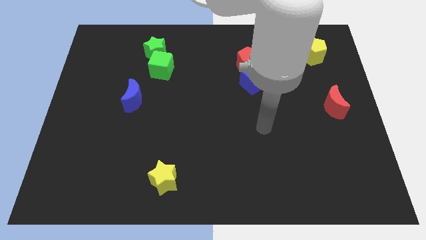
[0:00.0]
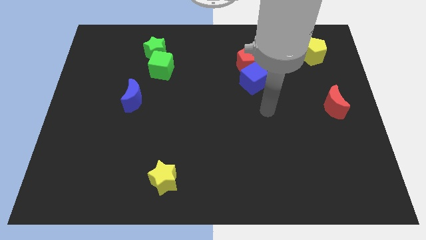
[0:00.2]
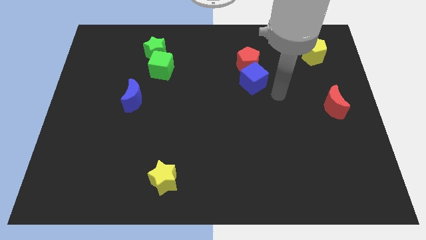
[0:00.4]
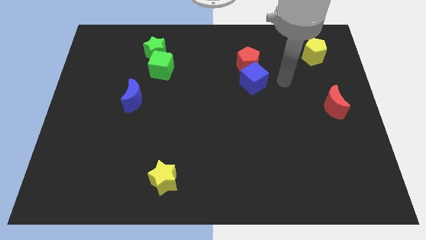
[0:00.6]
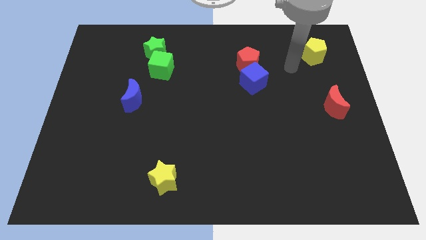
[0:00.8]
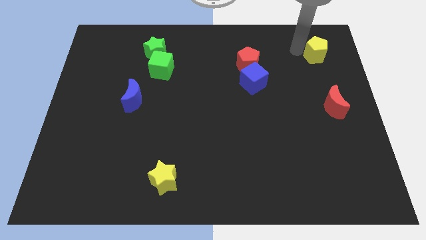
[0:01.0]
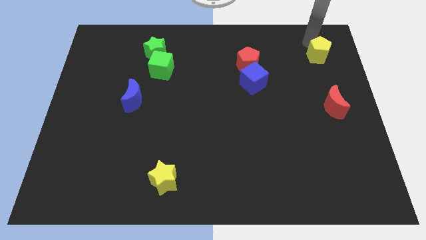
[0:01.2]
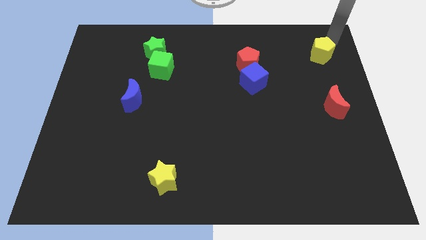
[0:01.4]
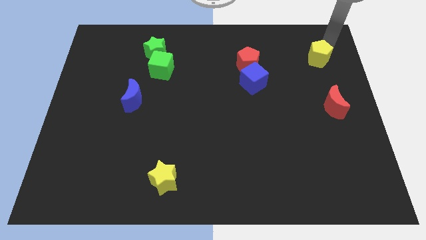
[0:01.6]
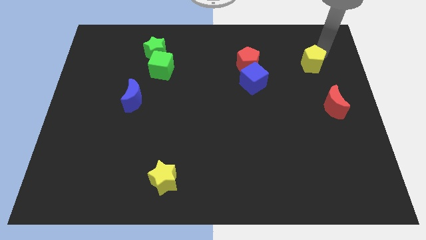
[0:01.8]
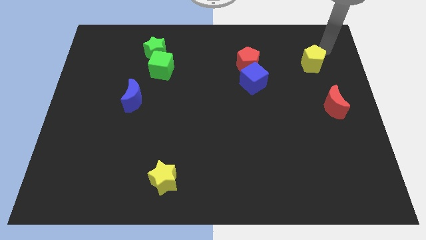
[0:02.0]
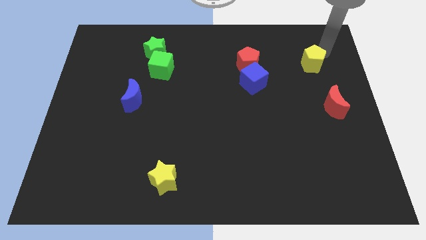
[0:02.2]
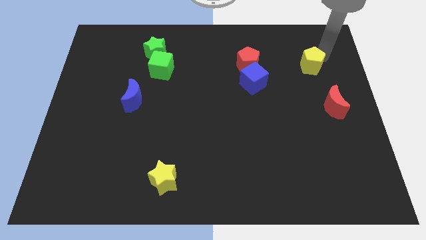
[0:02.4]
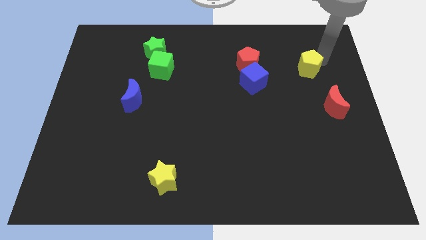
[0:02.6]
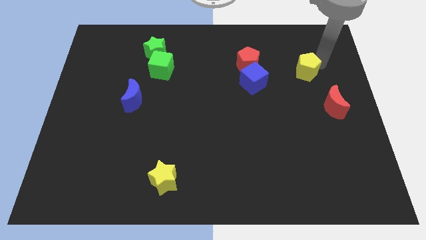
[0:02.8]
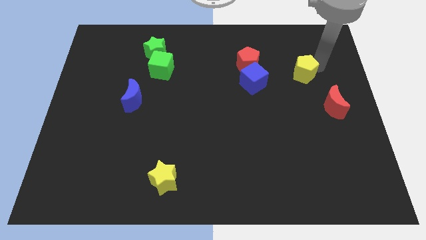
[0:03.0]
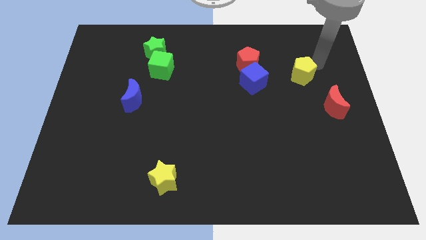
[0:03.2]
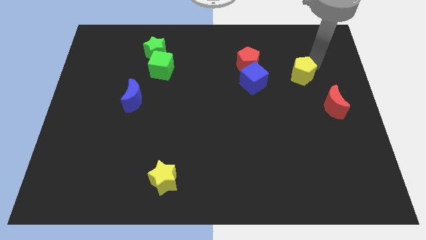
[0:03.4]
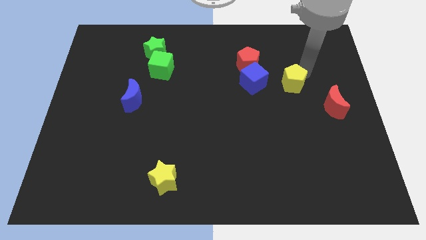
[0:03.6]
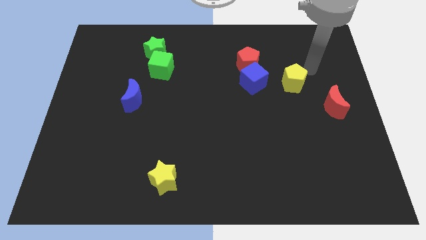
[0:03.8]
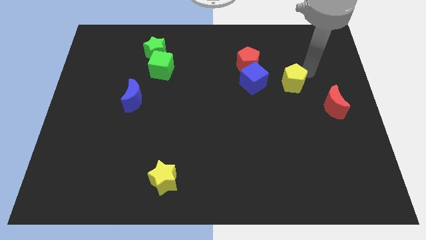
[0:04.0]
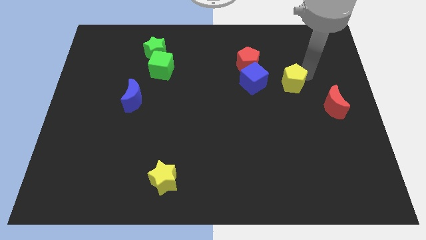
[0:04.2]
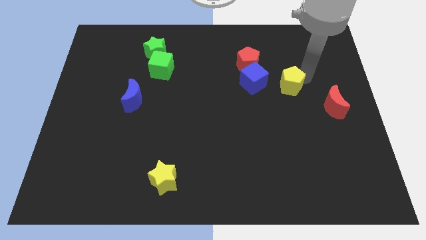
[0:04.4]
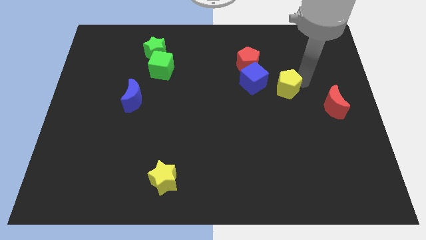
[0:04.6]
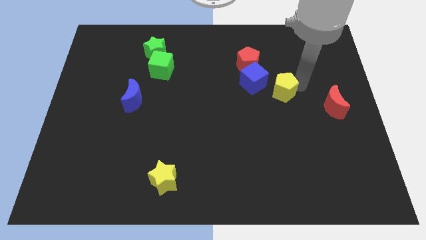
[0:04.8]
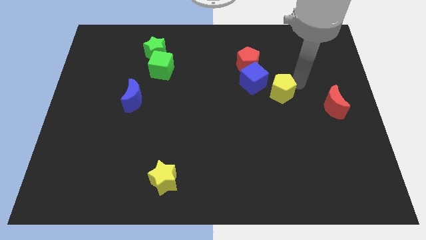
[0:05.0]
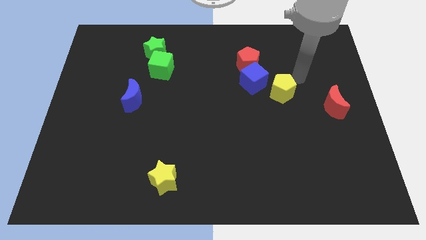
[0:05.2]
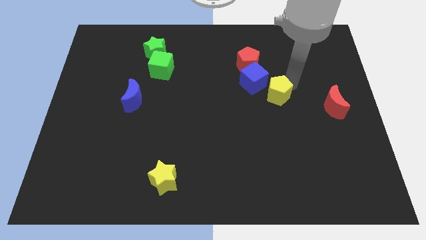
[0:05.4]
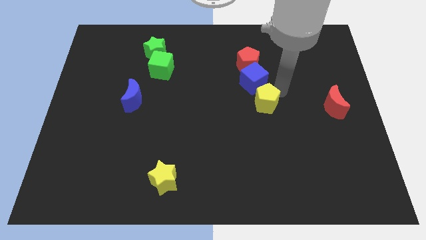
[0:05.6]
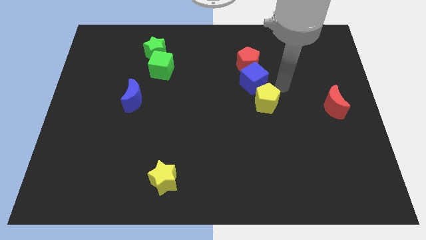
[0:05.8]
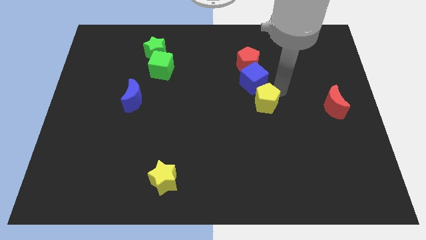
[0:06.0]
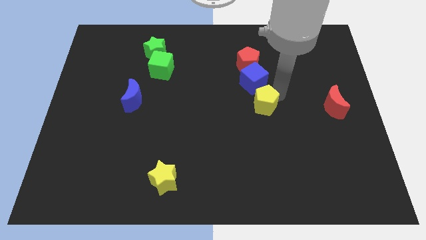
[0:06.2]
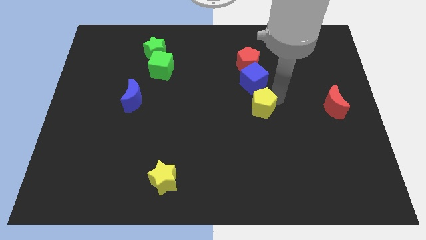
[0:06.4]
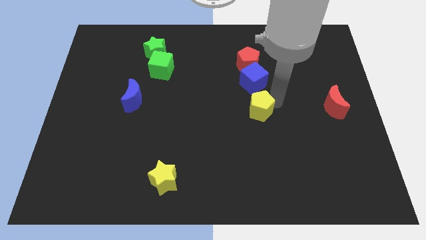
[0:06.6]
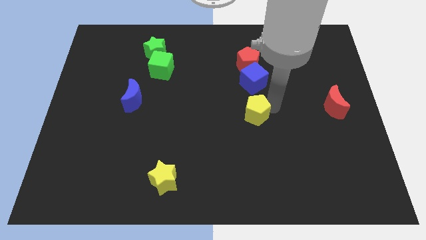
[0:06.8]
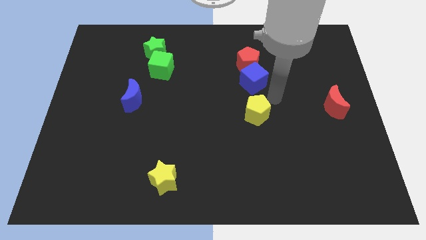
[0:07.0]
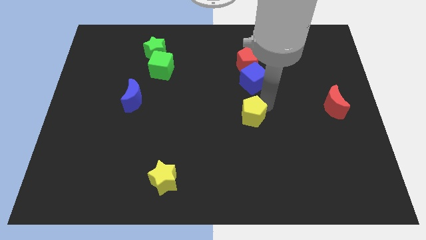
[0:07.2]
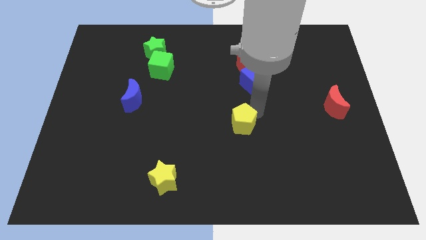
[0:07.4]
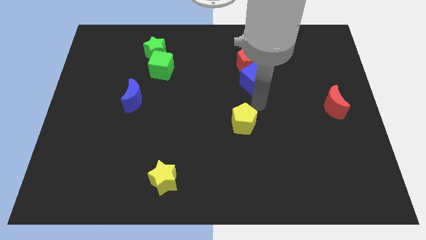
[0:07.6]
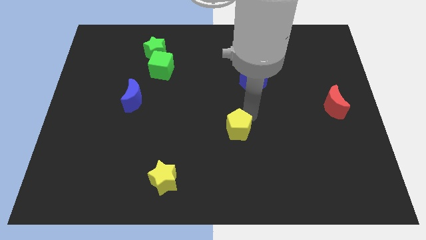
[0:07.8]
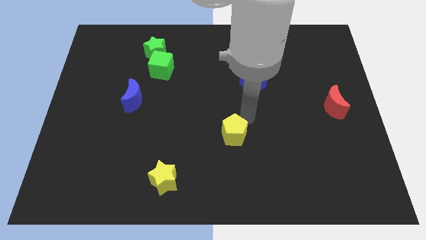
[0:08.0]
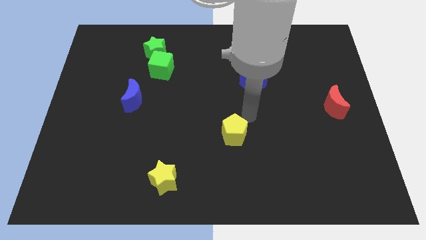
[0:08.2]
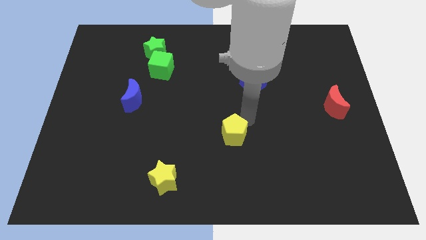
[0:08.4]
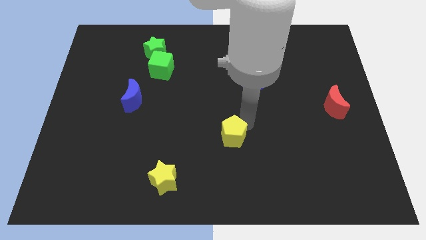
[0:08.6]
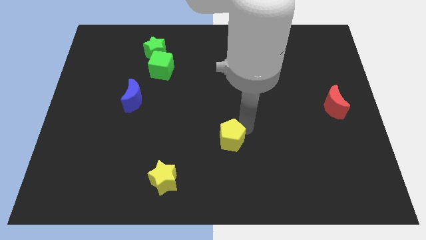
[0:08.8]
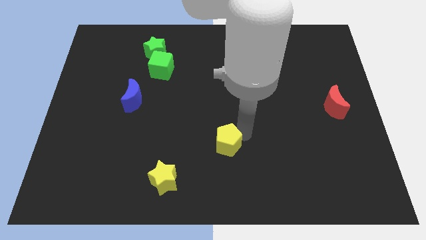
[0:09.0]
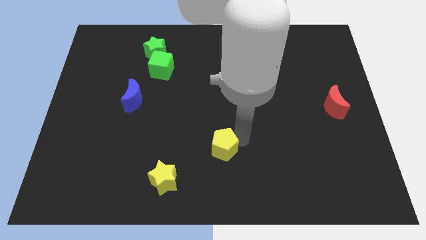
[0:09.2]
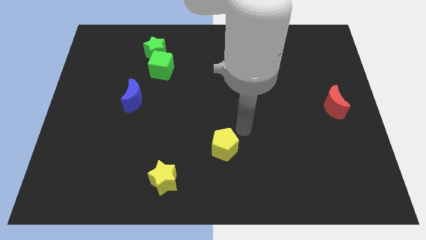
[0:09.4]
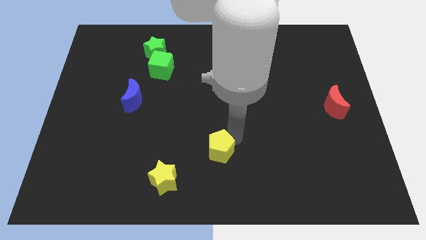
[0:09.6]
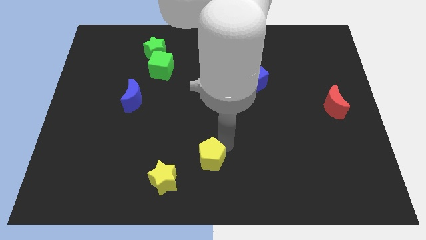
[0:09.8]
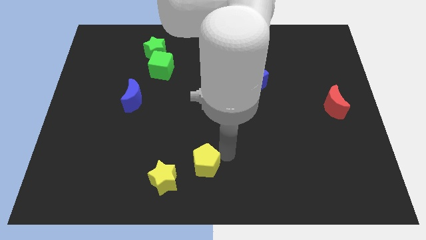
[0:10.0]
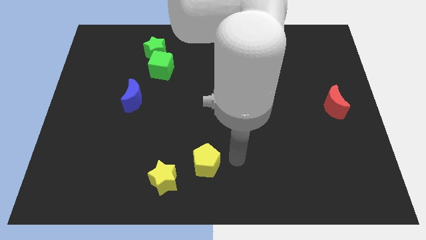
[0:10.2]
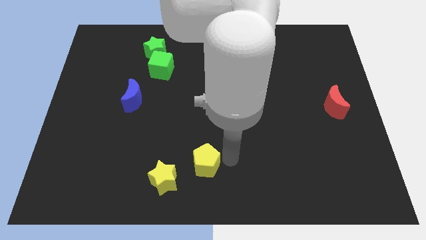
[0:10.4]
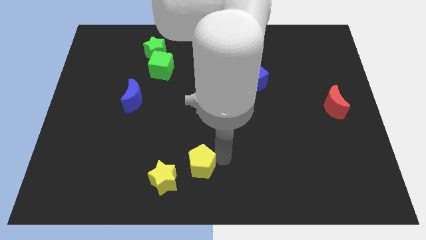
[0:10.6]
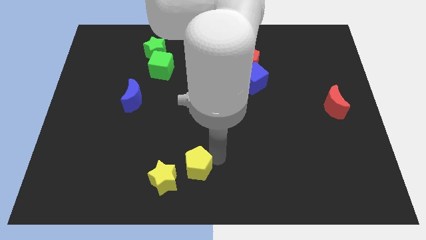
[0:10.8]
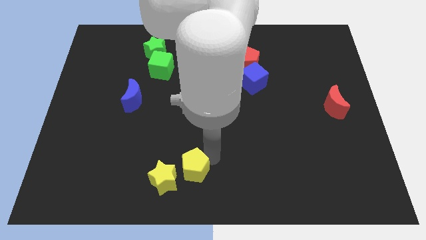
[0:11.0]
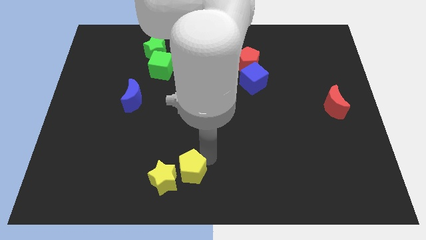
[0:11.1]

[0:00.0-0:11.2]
push the yellow pentagon next to the yellow star

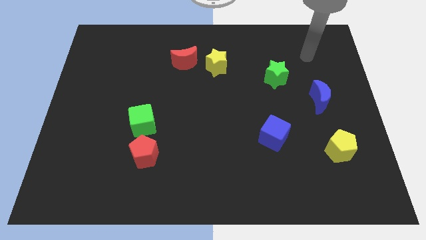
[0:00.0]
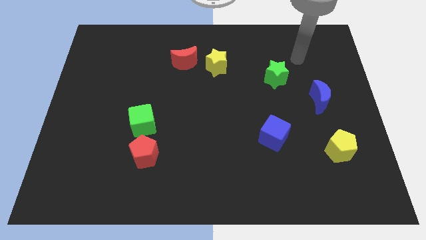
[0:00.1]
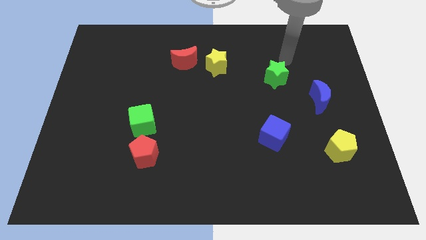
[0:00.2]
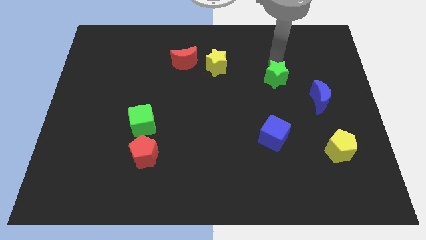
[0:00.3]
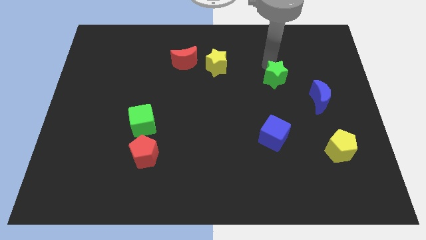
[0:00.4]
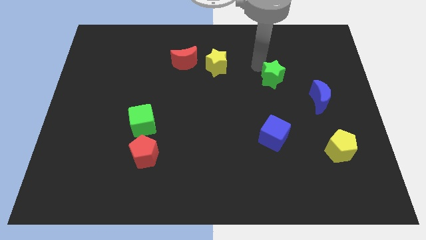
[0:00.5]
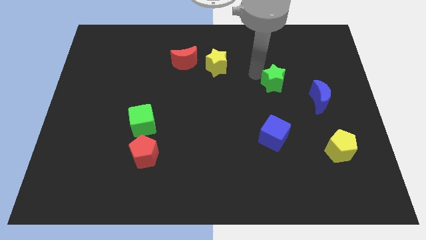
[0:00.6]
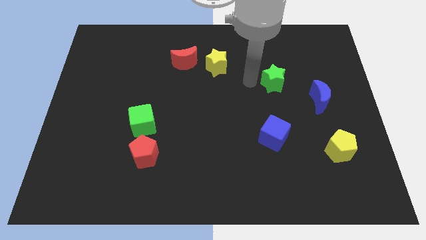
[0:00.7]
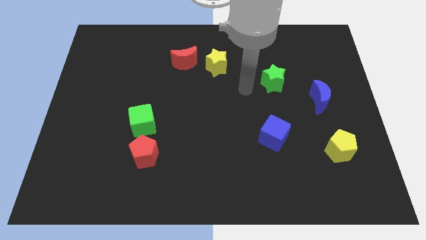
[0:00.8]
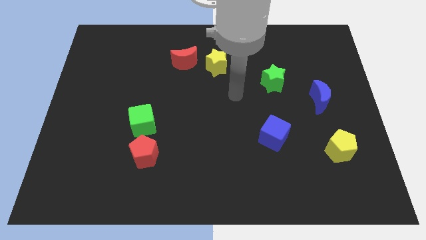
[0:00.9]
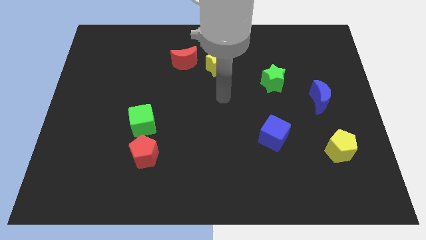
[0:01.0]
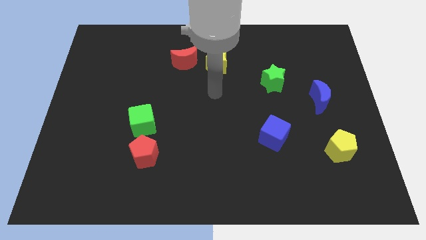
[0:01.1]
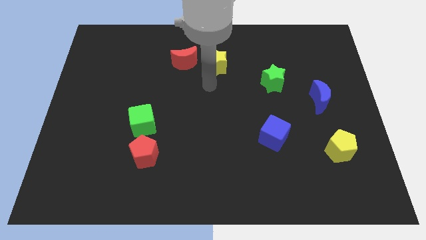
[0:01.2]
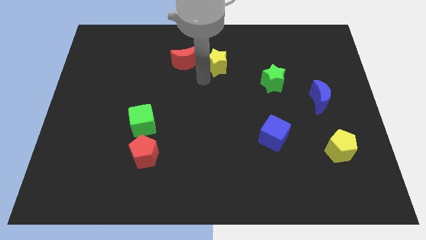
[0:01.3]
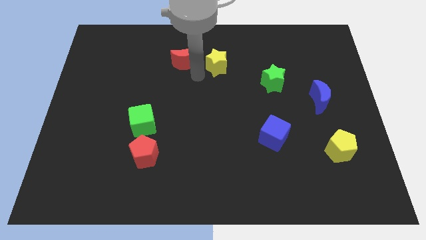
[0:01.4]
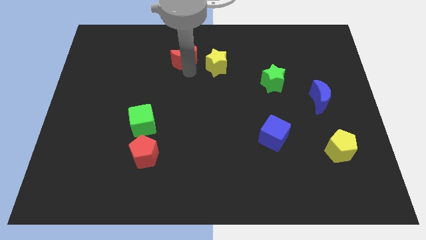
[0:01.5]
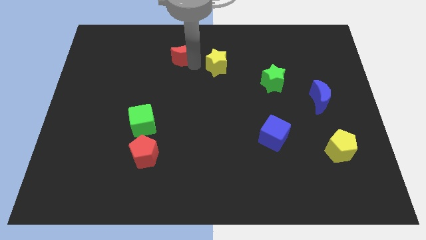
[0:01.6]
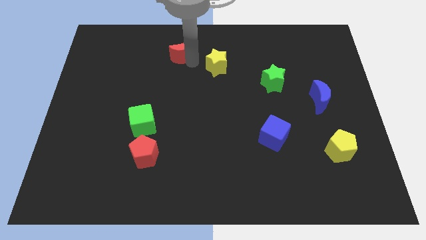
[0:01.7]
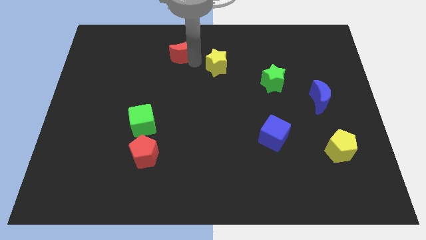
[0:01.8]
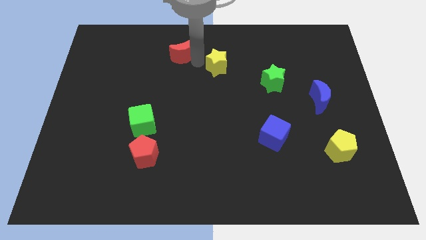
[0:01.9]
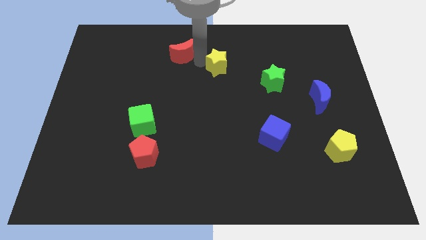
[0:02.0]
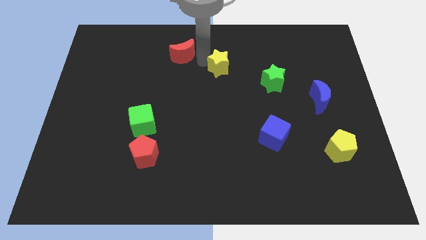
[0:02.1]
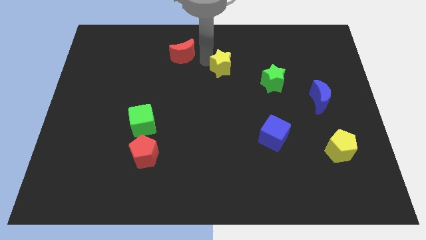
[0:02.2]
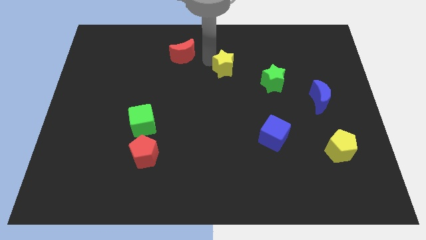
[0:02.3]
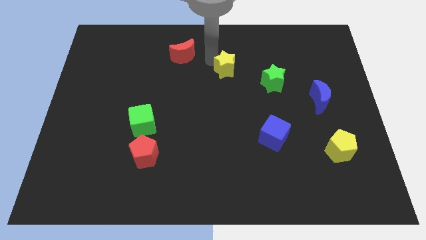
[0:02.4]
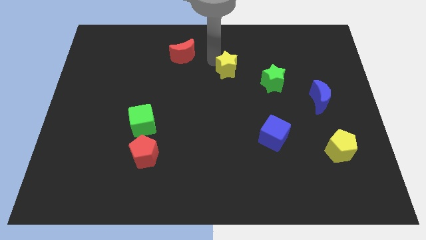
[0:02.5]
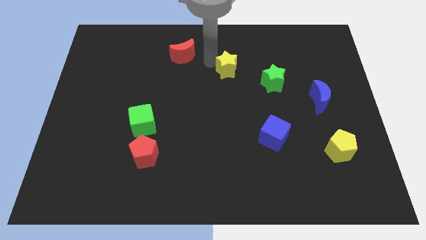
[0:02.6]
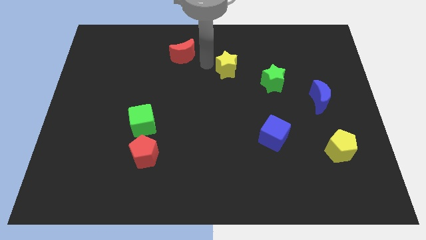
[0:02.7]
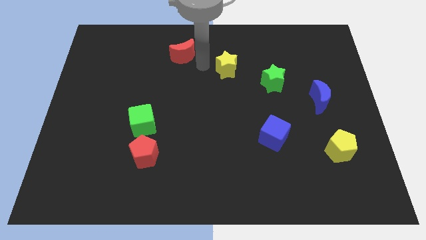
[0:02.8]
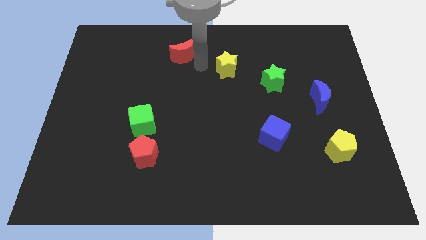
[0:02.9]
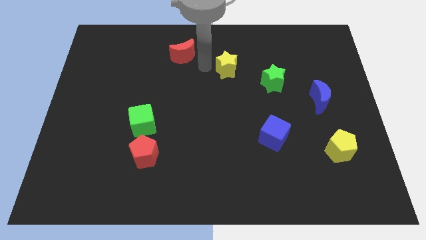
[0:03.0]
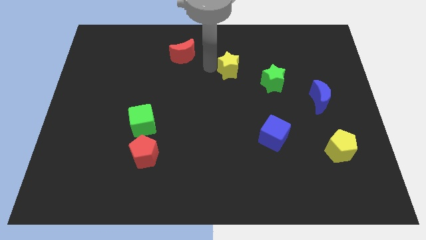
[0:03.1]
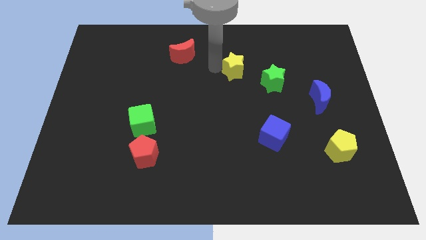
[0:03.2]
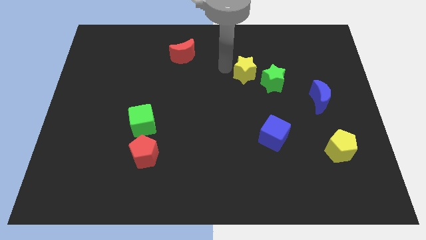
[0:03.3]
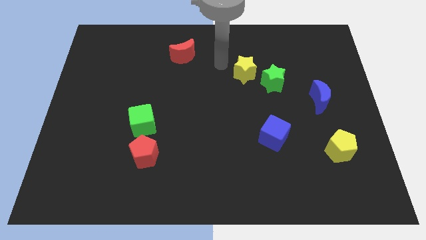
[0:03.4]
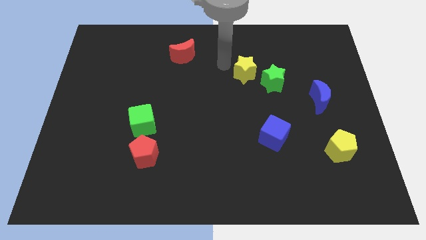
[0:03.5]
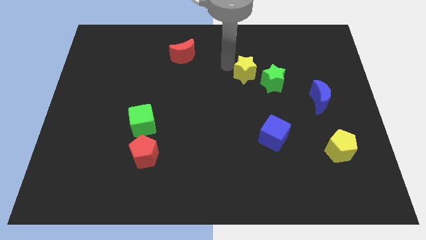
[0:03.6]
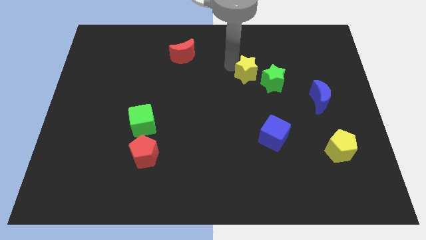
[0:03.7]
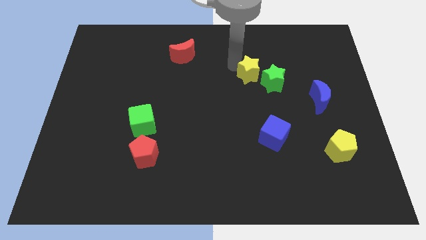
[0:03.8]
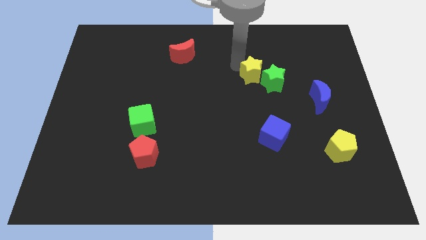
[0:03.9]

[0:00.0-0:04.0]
move the yellow star close to the green star
